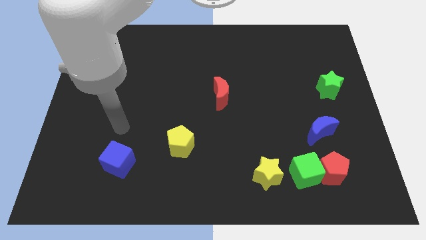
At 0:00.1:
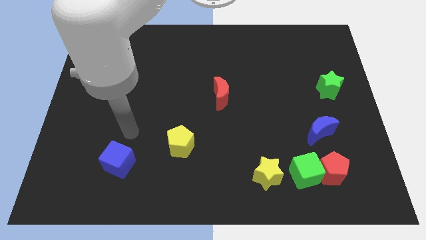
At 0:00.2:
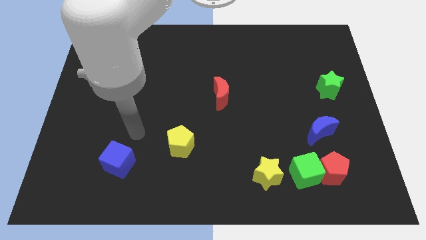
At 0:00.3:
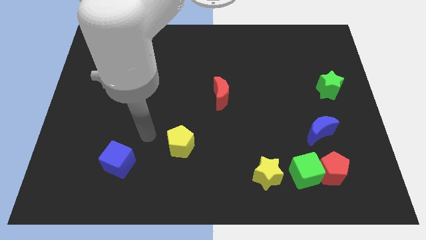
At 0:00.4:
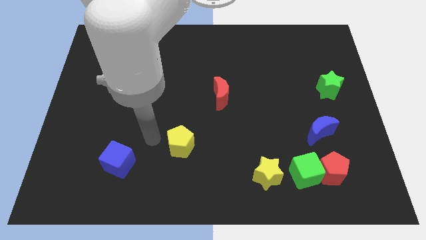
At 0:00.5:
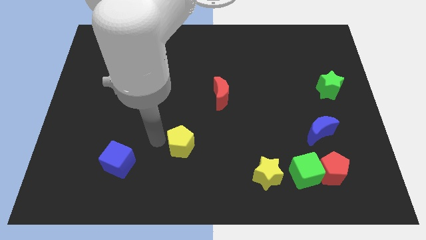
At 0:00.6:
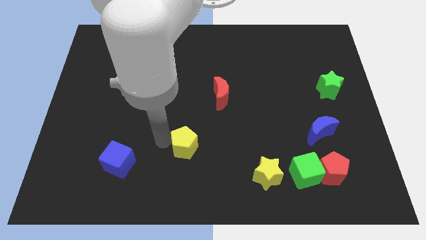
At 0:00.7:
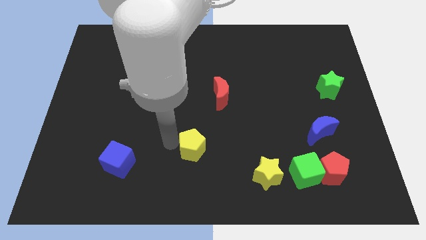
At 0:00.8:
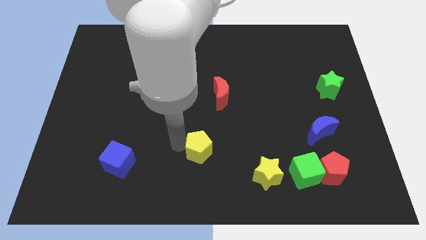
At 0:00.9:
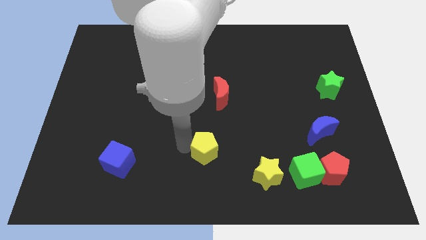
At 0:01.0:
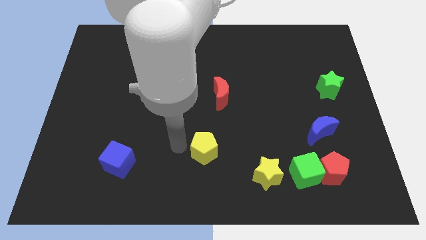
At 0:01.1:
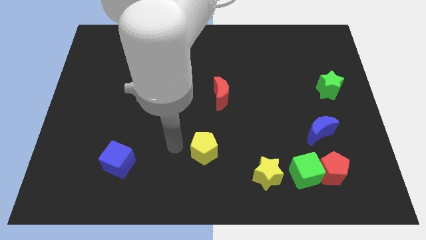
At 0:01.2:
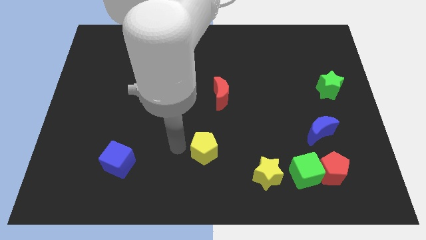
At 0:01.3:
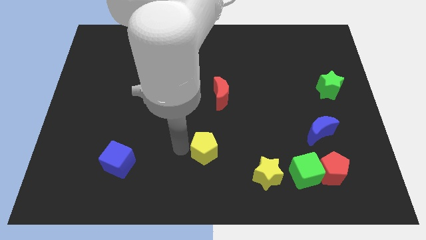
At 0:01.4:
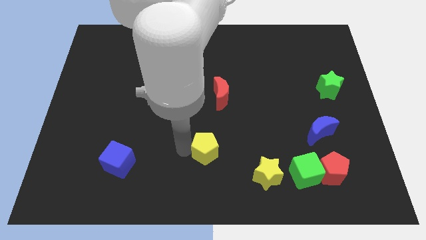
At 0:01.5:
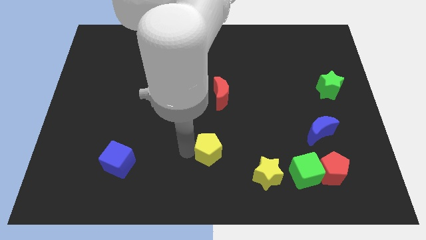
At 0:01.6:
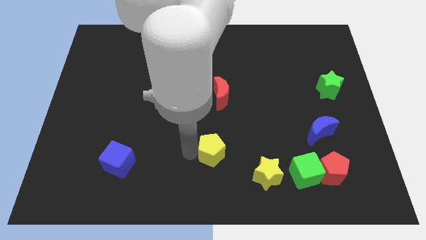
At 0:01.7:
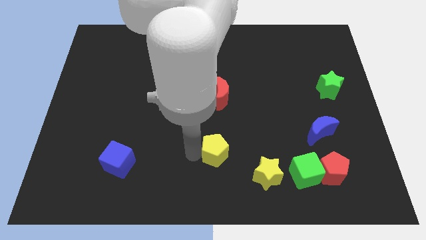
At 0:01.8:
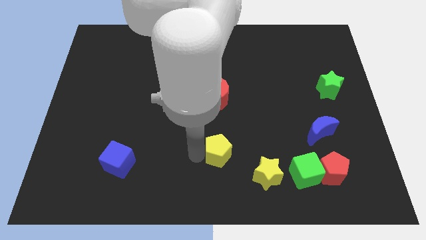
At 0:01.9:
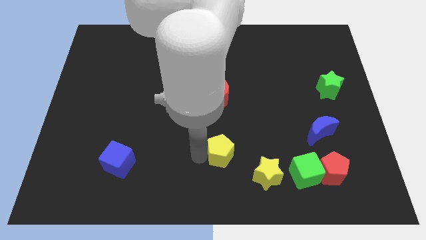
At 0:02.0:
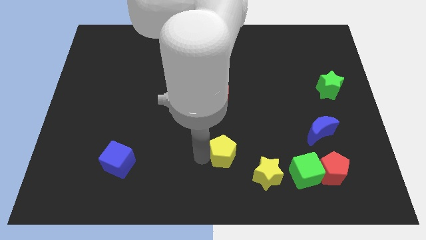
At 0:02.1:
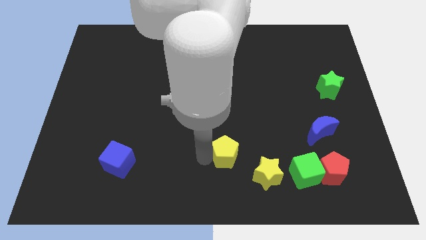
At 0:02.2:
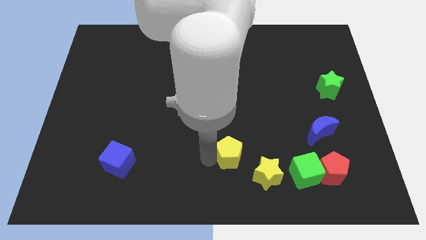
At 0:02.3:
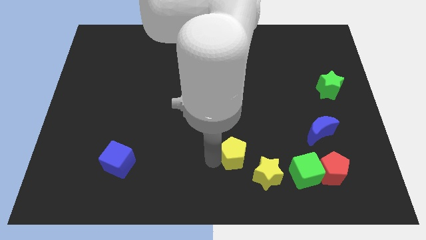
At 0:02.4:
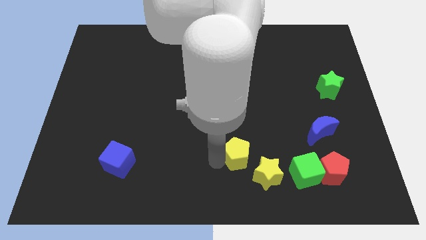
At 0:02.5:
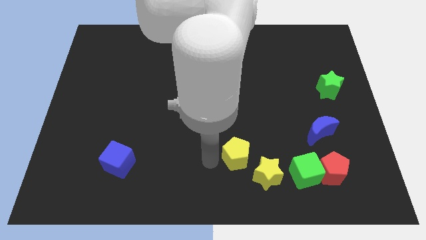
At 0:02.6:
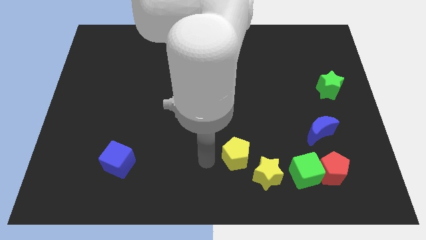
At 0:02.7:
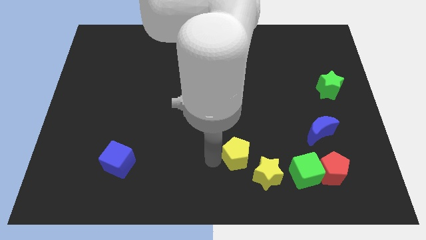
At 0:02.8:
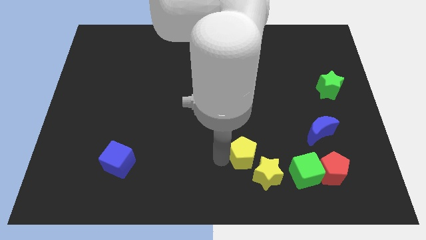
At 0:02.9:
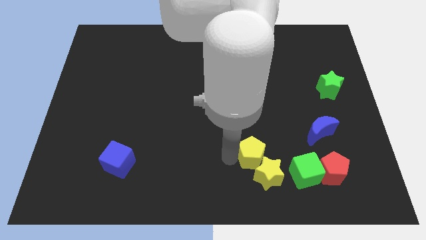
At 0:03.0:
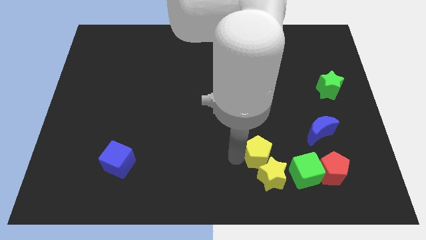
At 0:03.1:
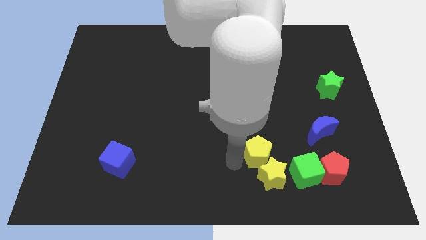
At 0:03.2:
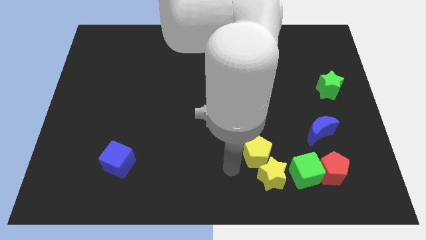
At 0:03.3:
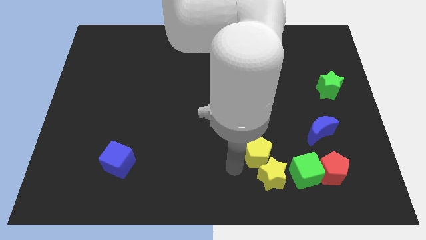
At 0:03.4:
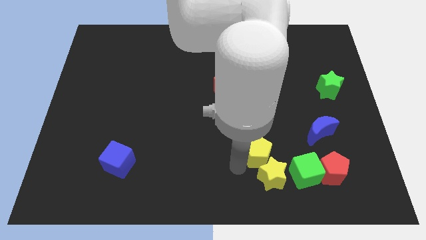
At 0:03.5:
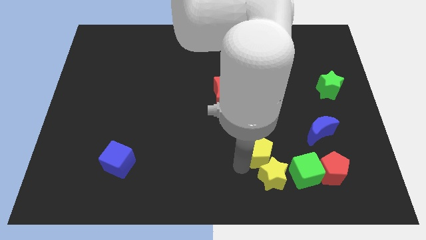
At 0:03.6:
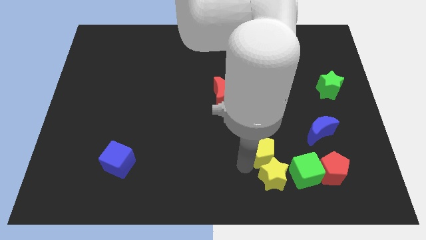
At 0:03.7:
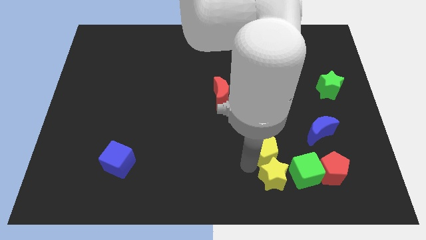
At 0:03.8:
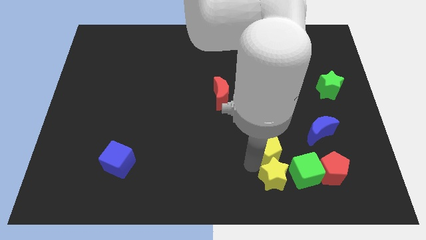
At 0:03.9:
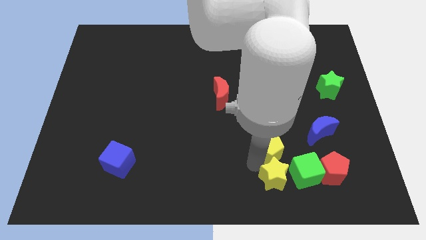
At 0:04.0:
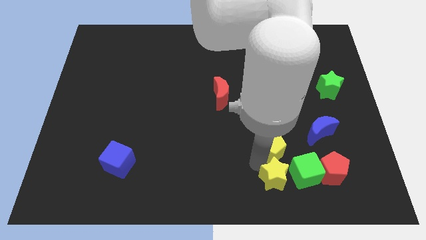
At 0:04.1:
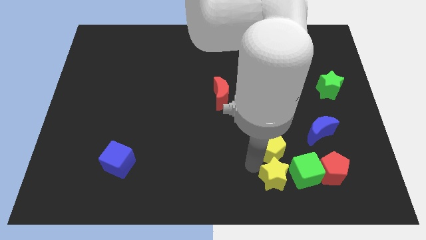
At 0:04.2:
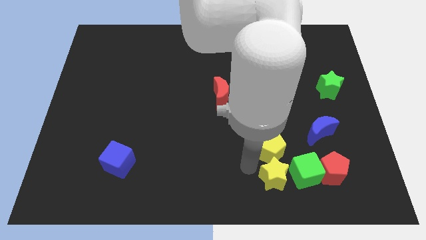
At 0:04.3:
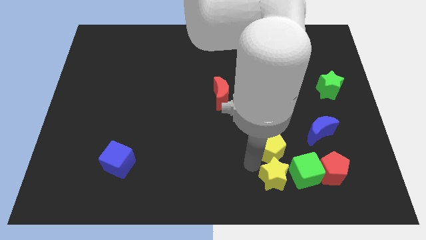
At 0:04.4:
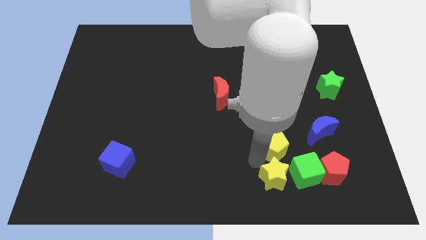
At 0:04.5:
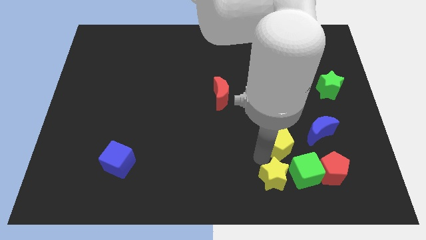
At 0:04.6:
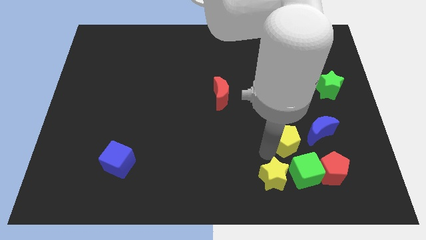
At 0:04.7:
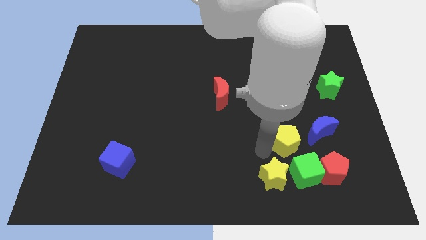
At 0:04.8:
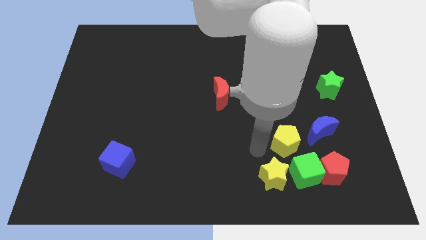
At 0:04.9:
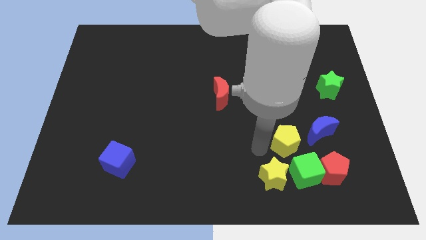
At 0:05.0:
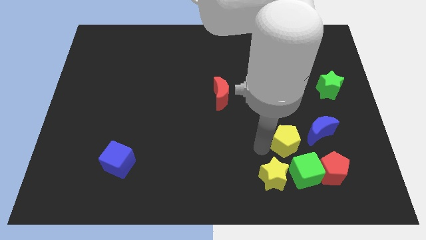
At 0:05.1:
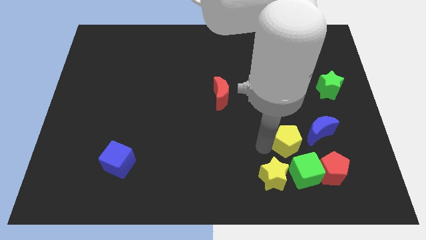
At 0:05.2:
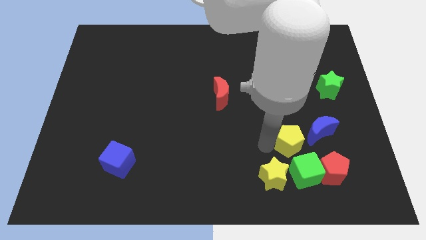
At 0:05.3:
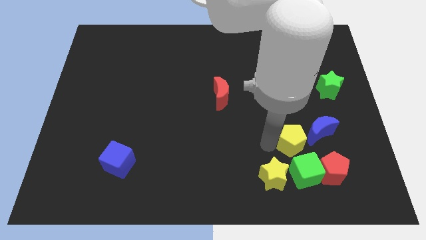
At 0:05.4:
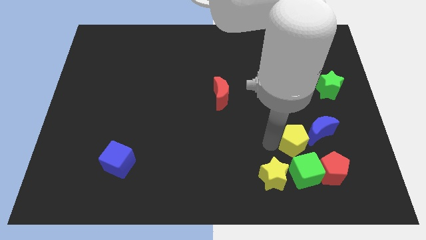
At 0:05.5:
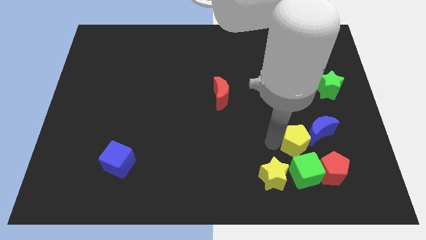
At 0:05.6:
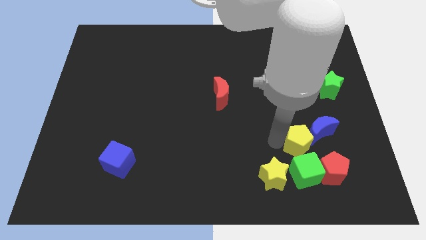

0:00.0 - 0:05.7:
slide the yellow pentagon towards the blue moon

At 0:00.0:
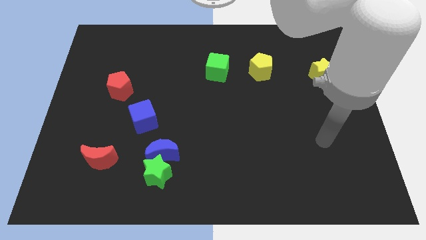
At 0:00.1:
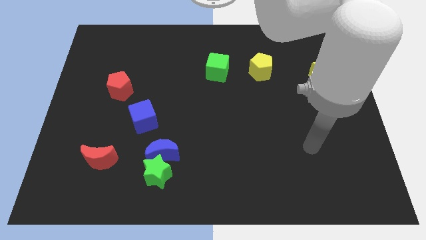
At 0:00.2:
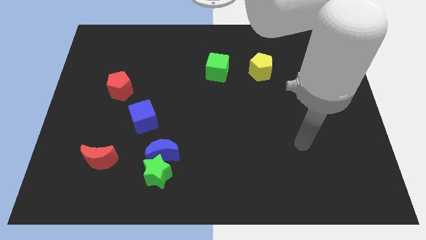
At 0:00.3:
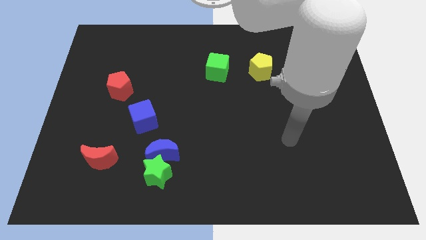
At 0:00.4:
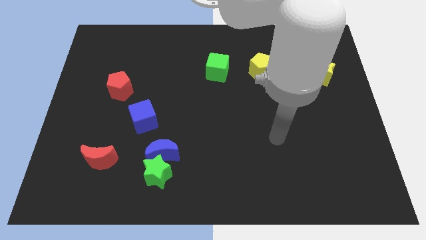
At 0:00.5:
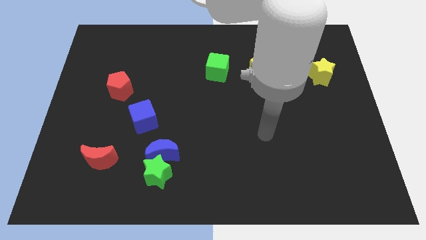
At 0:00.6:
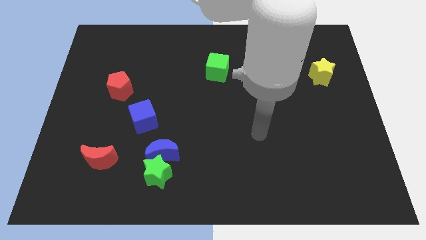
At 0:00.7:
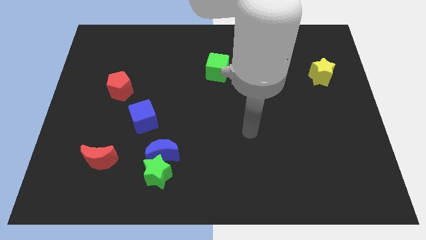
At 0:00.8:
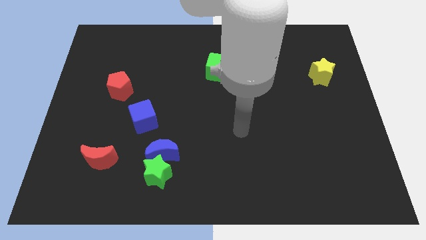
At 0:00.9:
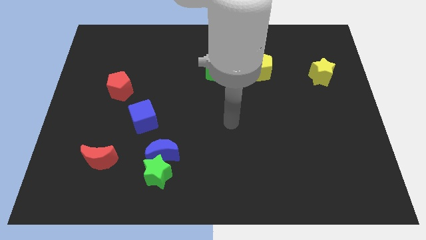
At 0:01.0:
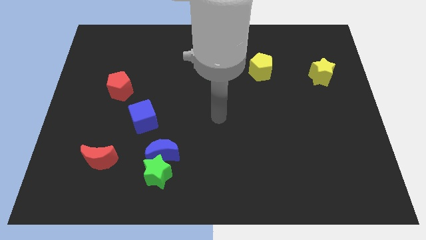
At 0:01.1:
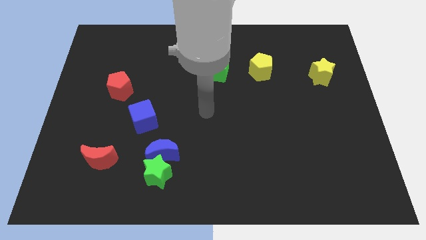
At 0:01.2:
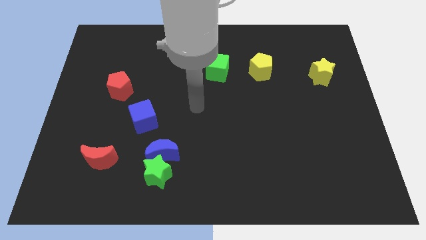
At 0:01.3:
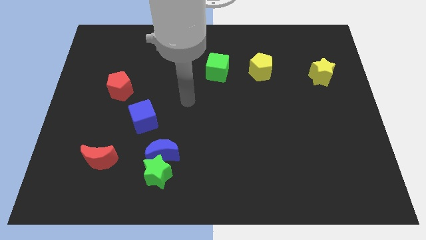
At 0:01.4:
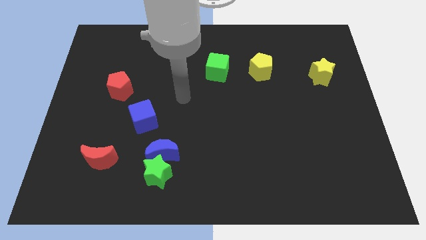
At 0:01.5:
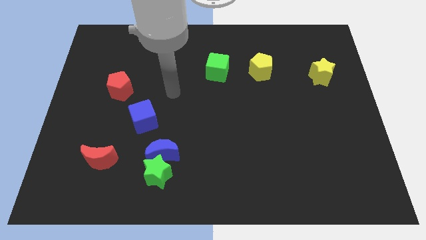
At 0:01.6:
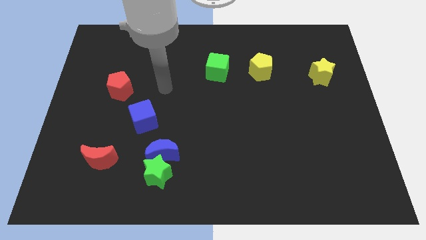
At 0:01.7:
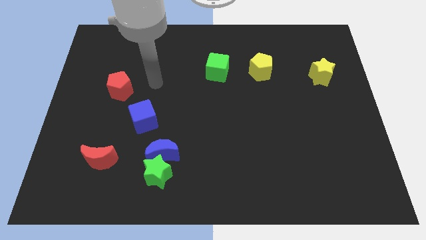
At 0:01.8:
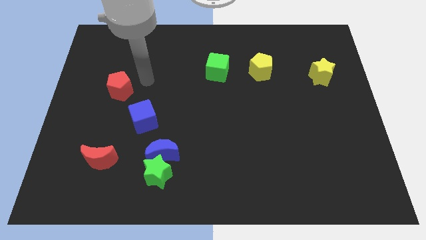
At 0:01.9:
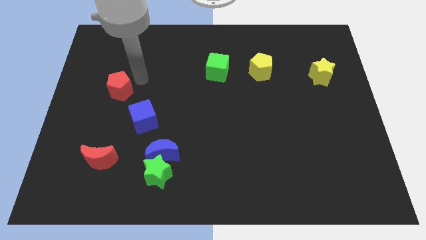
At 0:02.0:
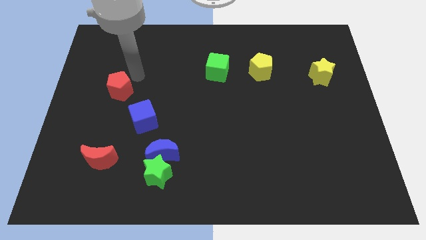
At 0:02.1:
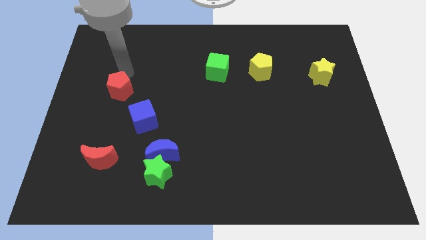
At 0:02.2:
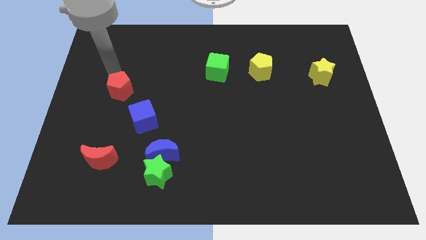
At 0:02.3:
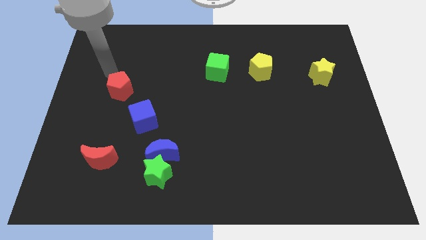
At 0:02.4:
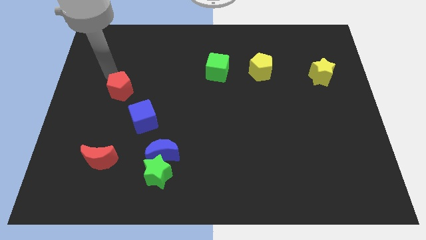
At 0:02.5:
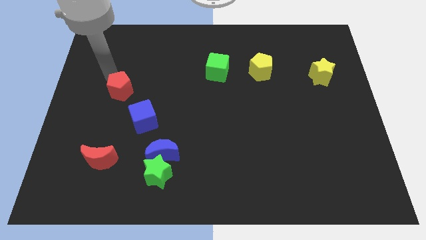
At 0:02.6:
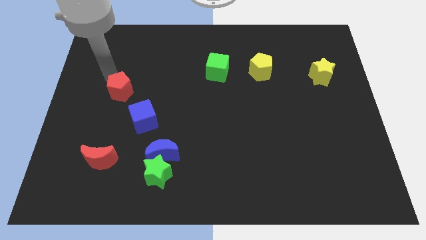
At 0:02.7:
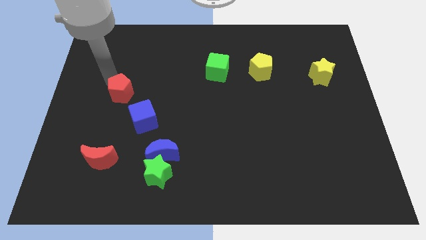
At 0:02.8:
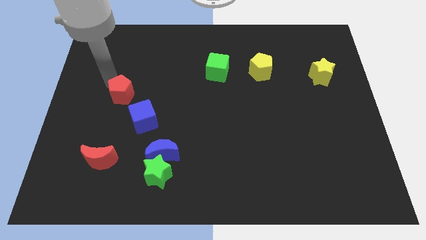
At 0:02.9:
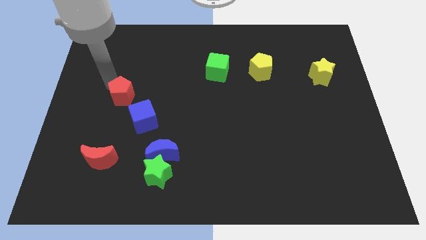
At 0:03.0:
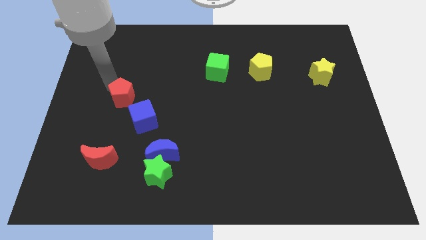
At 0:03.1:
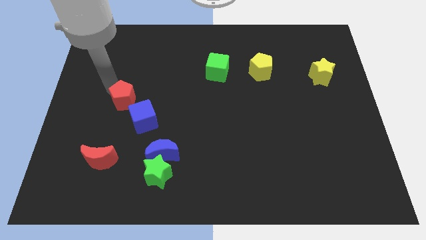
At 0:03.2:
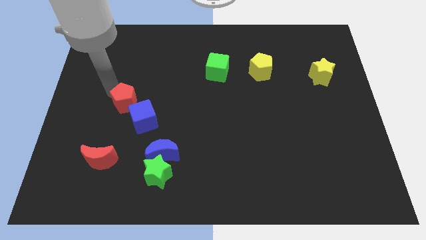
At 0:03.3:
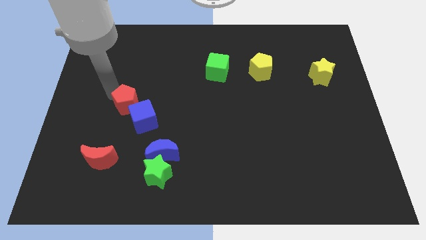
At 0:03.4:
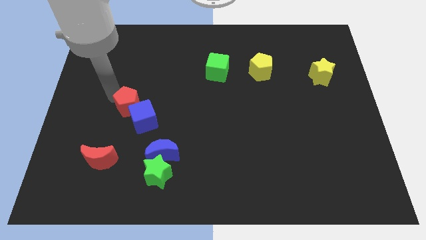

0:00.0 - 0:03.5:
push the red pentagon next to the blue cube
